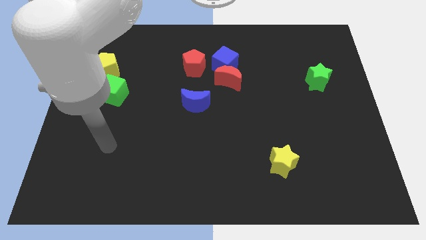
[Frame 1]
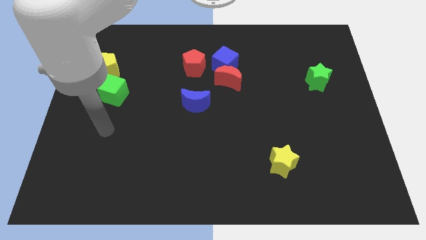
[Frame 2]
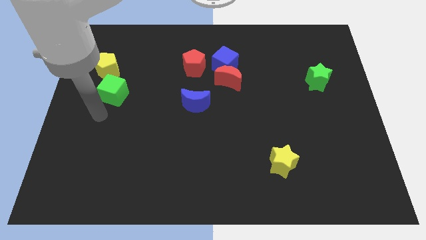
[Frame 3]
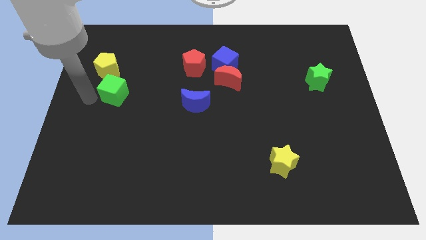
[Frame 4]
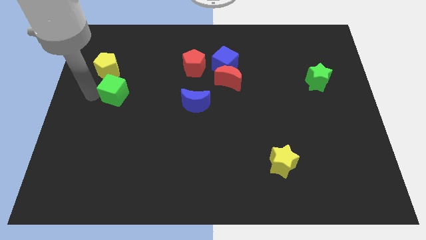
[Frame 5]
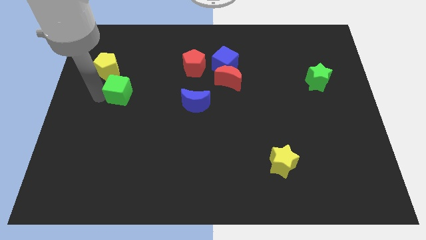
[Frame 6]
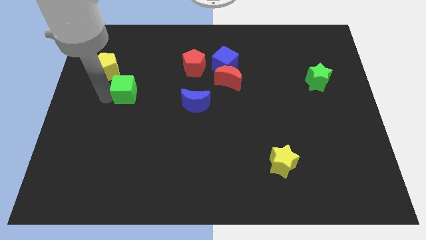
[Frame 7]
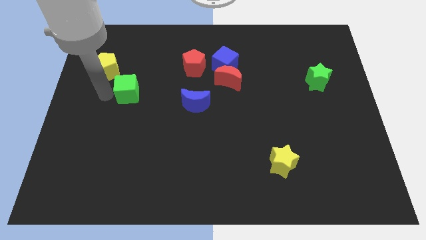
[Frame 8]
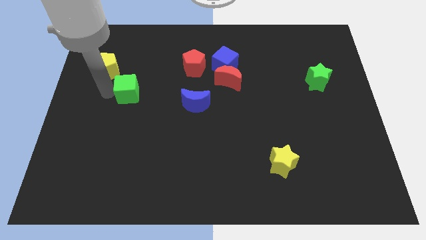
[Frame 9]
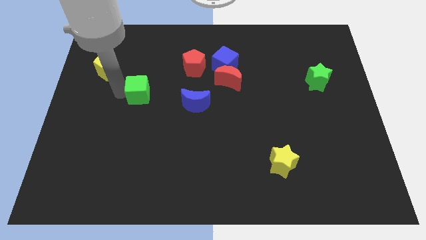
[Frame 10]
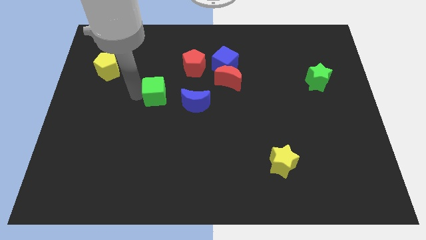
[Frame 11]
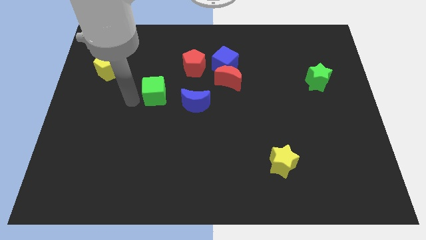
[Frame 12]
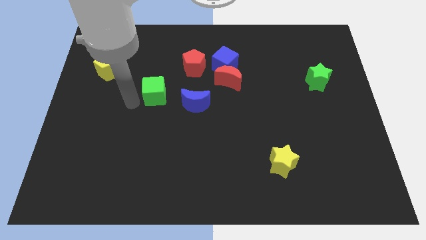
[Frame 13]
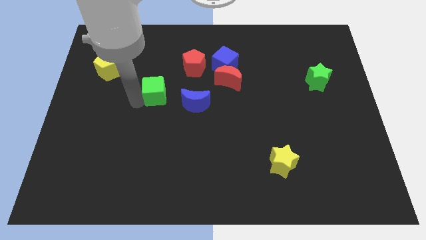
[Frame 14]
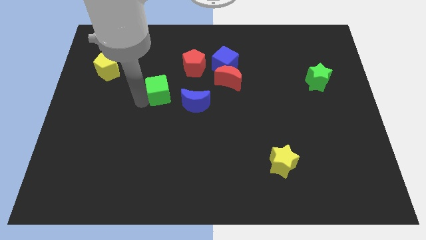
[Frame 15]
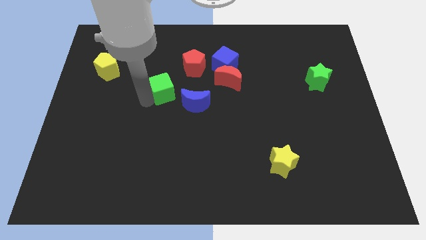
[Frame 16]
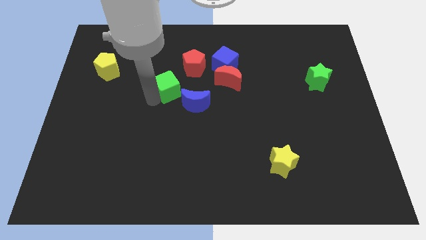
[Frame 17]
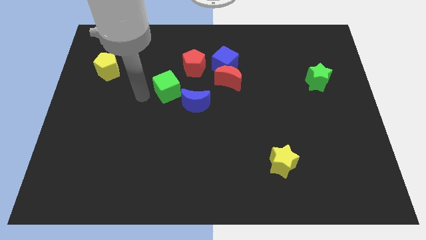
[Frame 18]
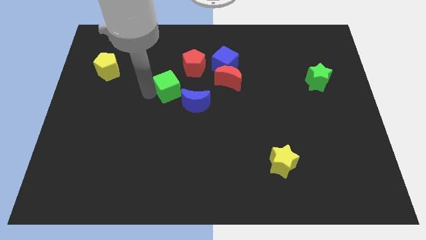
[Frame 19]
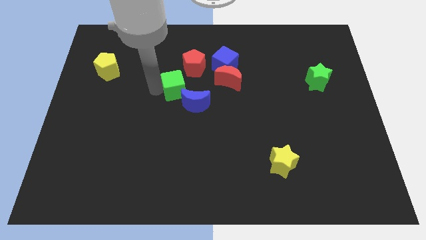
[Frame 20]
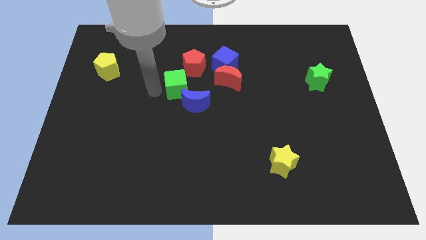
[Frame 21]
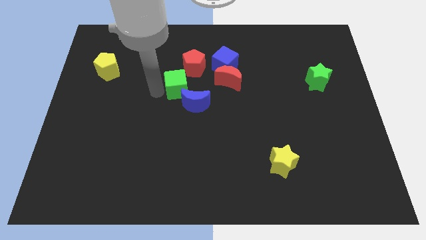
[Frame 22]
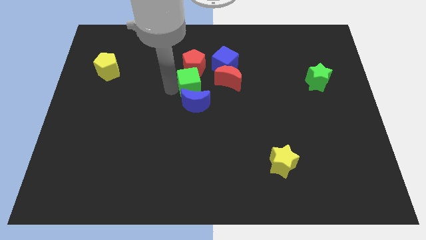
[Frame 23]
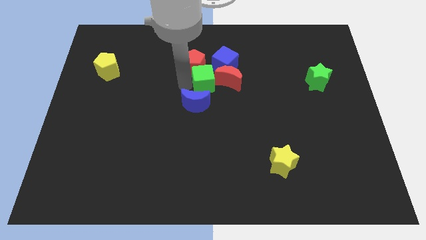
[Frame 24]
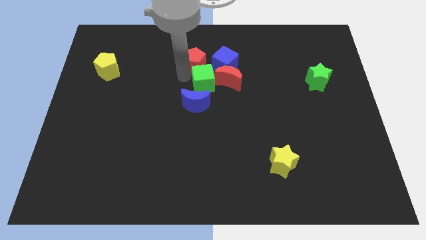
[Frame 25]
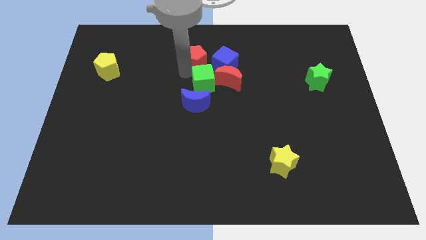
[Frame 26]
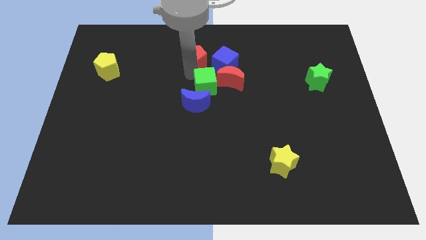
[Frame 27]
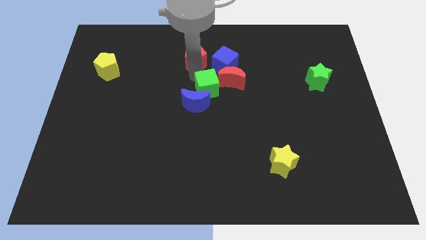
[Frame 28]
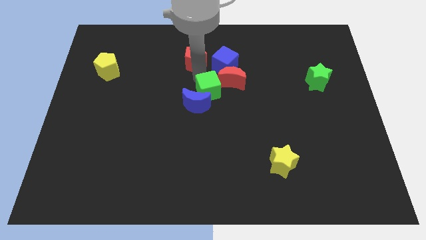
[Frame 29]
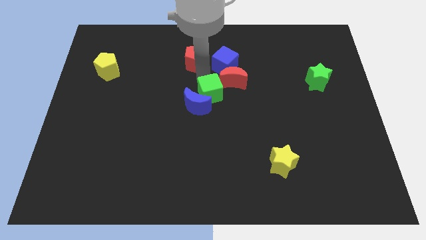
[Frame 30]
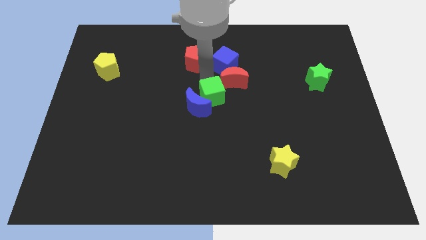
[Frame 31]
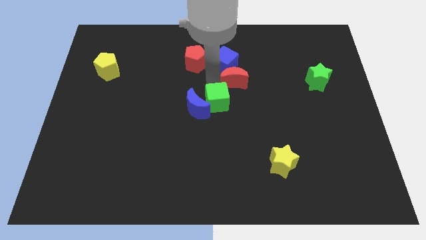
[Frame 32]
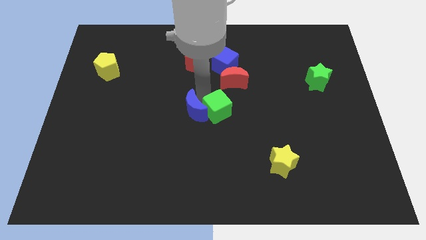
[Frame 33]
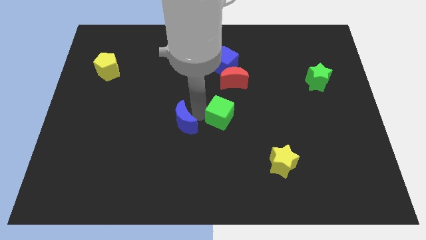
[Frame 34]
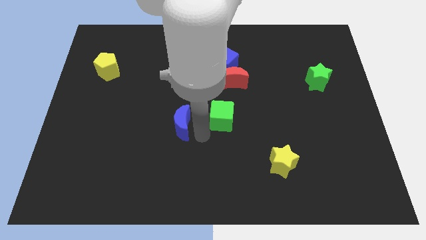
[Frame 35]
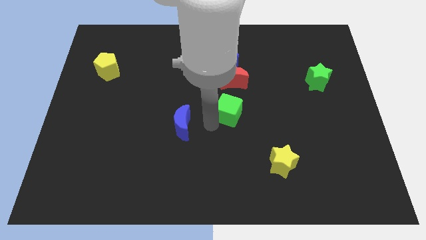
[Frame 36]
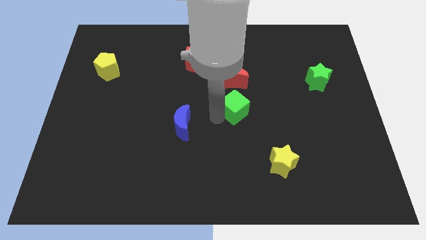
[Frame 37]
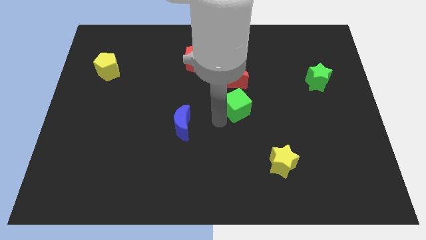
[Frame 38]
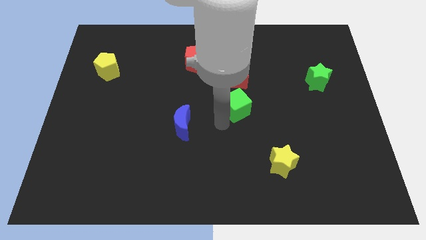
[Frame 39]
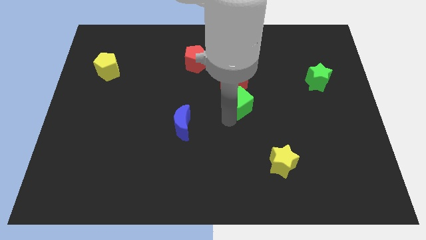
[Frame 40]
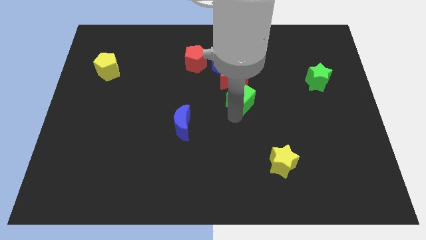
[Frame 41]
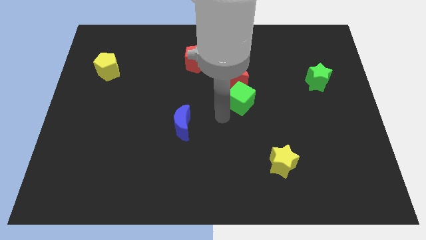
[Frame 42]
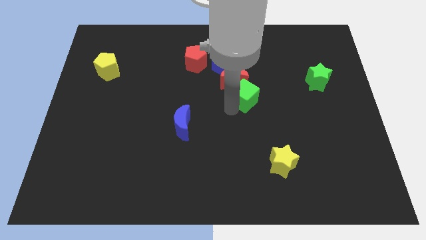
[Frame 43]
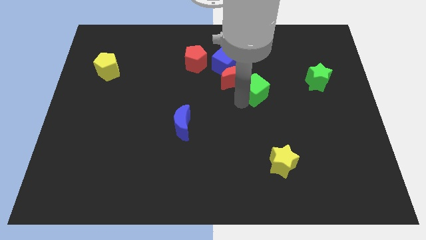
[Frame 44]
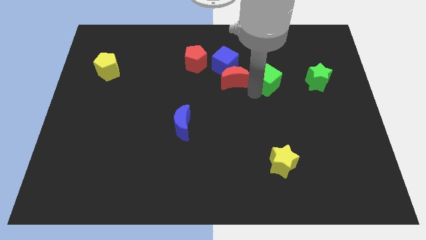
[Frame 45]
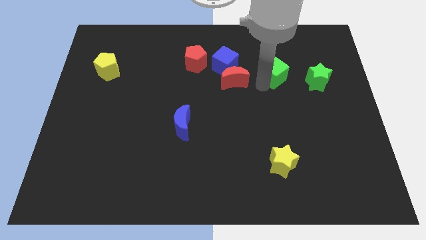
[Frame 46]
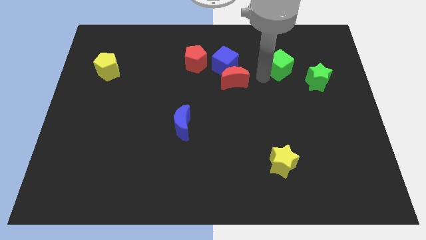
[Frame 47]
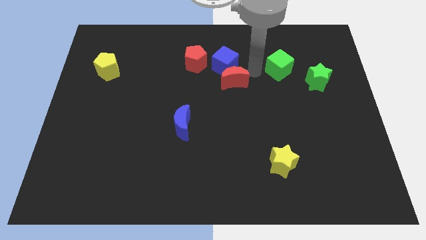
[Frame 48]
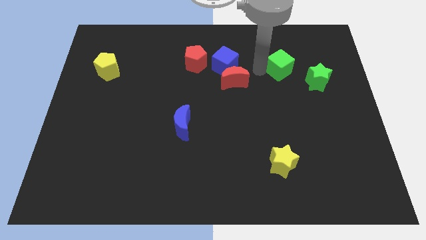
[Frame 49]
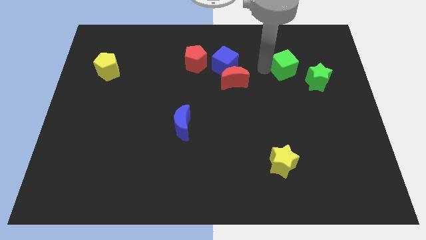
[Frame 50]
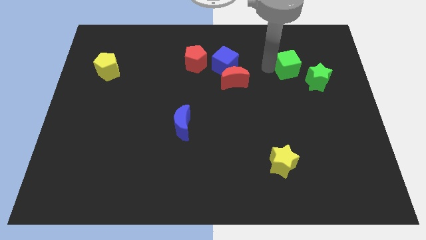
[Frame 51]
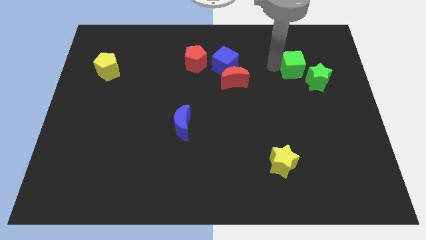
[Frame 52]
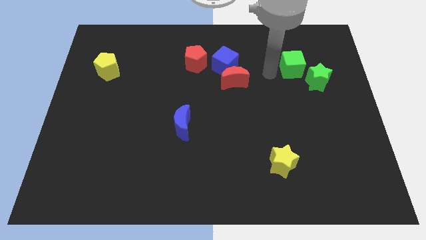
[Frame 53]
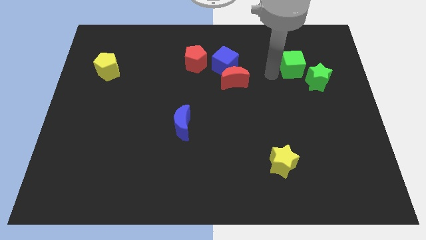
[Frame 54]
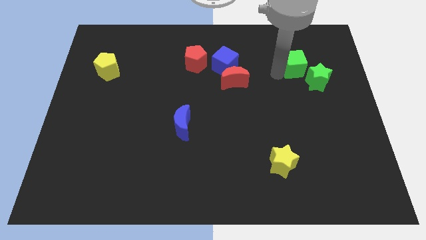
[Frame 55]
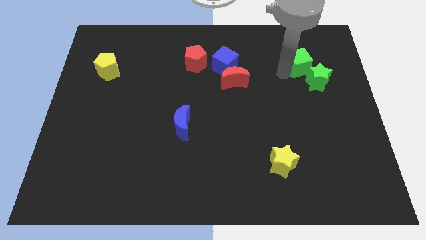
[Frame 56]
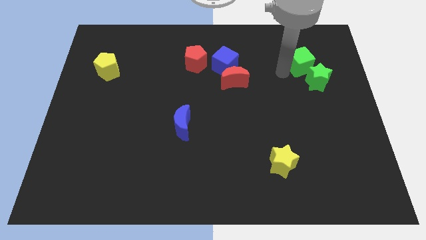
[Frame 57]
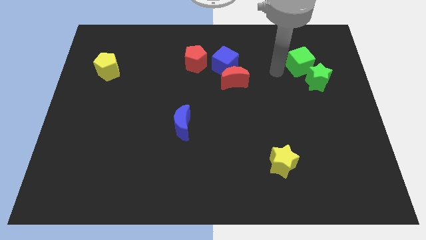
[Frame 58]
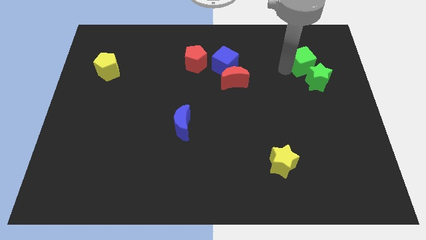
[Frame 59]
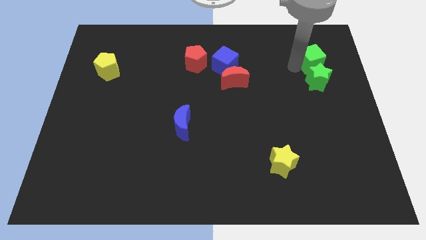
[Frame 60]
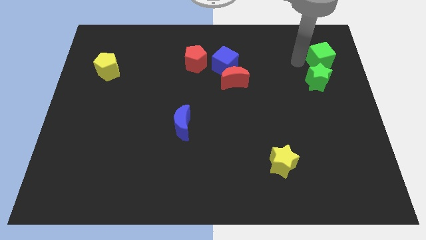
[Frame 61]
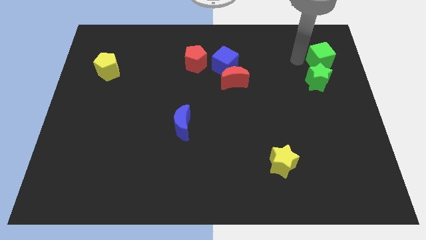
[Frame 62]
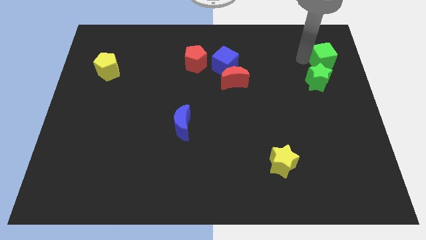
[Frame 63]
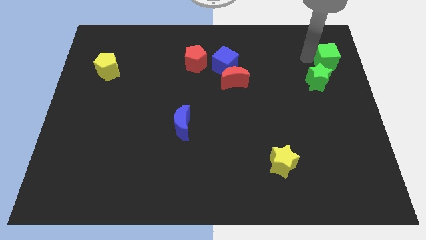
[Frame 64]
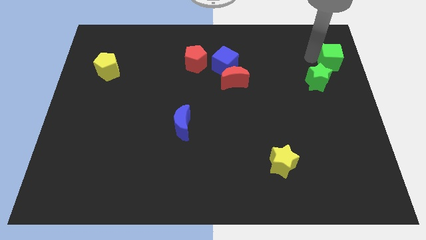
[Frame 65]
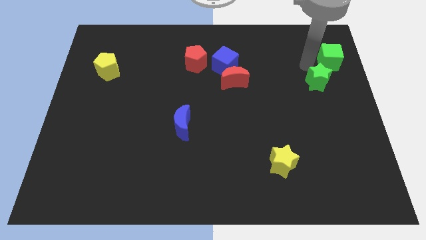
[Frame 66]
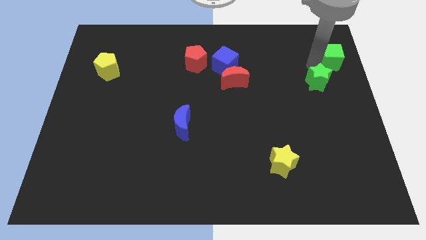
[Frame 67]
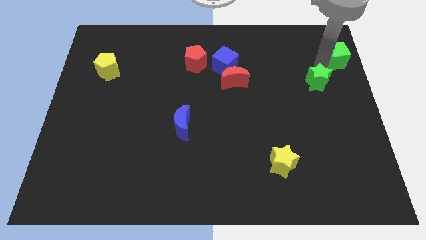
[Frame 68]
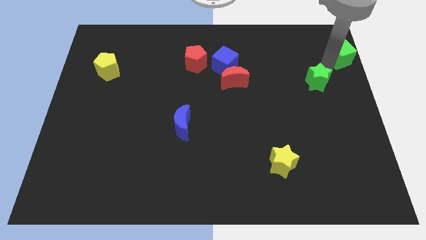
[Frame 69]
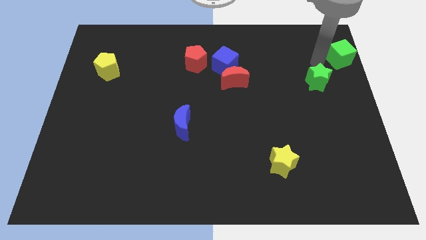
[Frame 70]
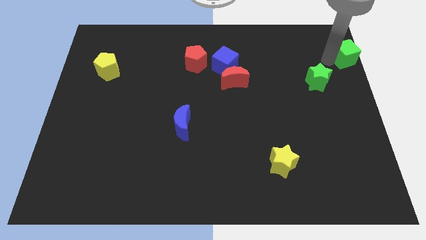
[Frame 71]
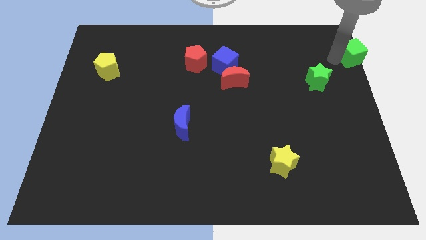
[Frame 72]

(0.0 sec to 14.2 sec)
put the green cube to the upper right corner
